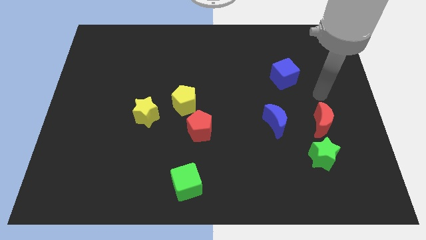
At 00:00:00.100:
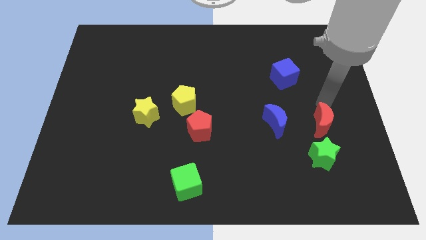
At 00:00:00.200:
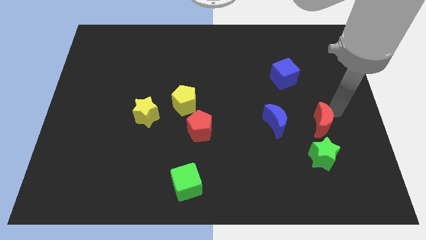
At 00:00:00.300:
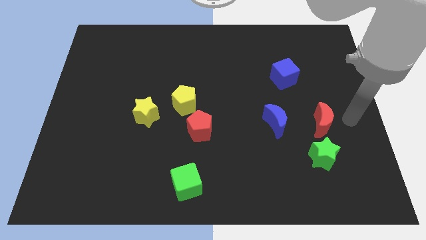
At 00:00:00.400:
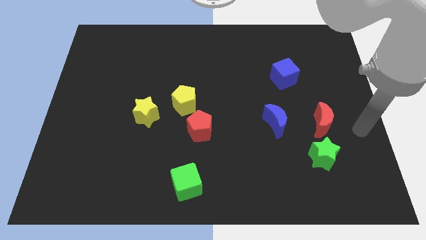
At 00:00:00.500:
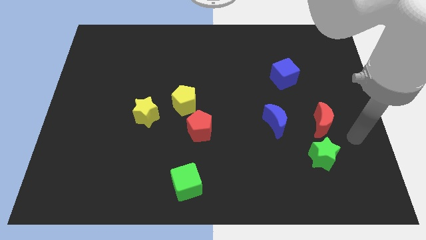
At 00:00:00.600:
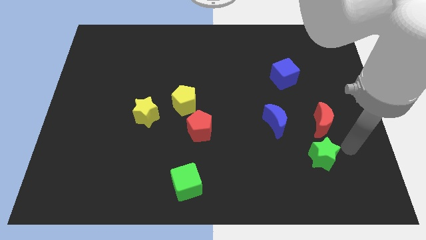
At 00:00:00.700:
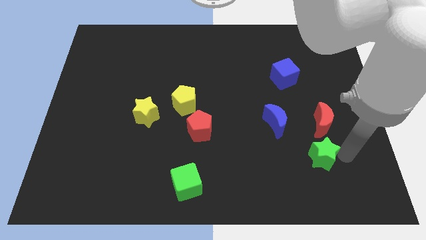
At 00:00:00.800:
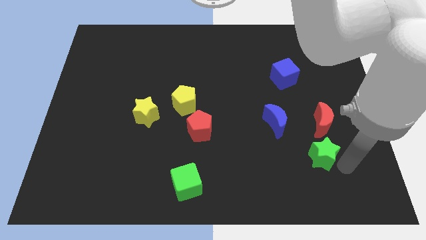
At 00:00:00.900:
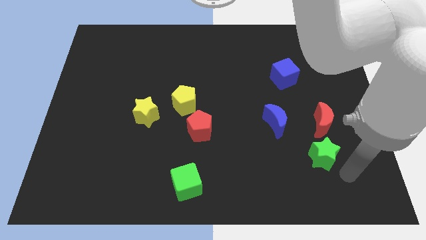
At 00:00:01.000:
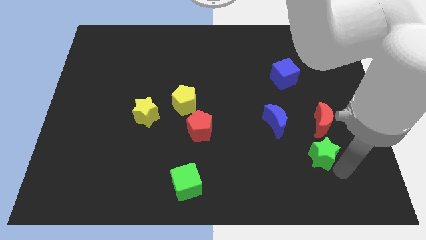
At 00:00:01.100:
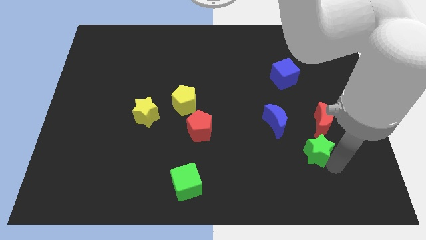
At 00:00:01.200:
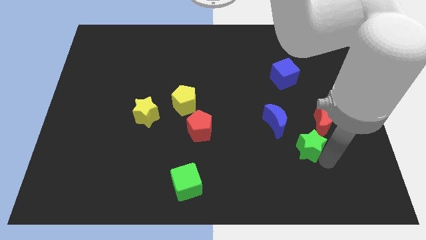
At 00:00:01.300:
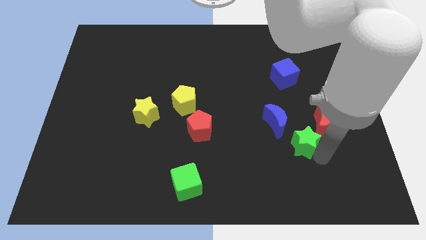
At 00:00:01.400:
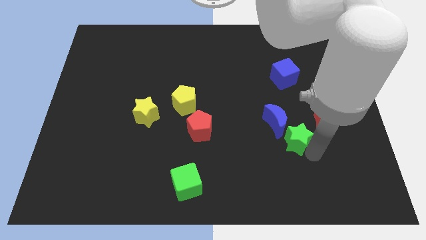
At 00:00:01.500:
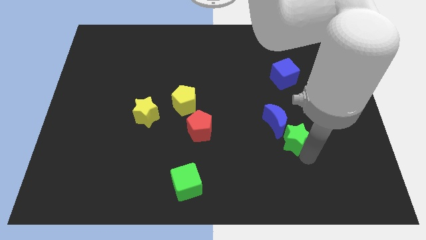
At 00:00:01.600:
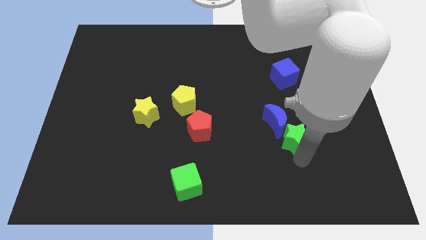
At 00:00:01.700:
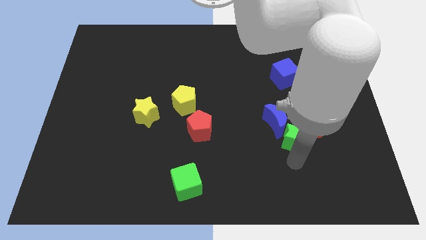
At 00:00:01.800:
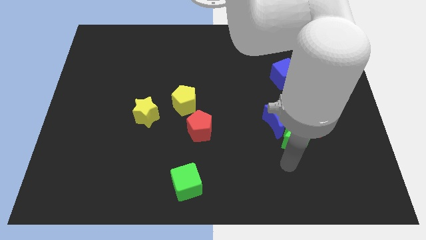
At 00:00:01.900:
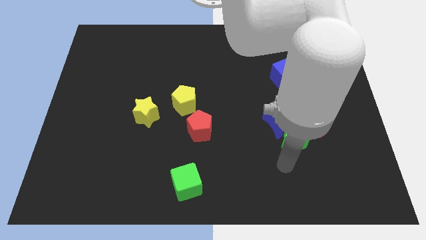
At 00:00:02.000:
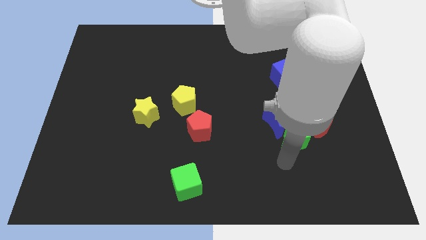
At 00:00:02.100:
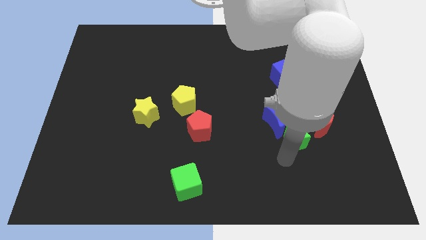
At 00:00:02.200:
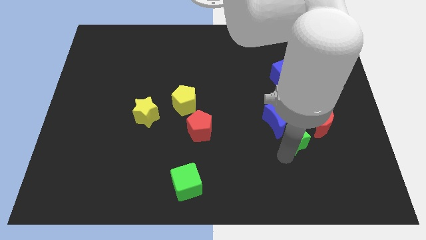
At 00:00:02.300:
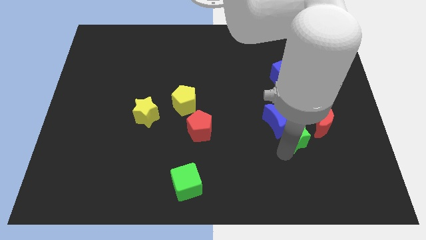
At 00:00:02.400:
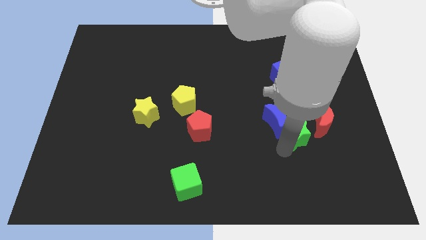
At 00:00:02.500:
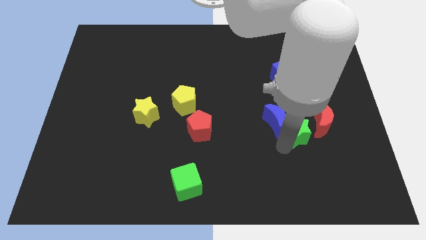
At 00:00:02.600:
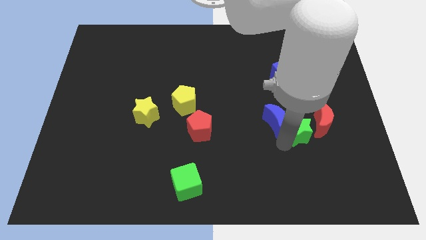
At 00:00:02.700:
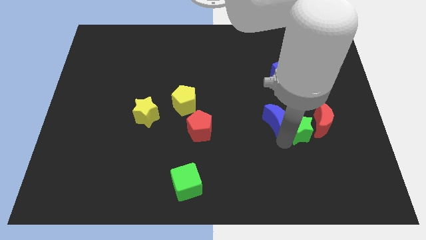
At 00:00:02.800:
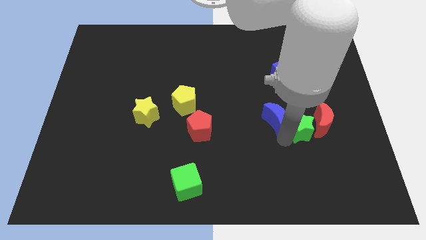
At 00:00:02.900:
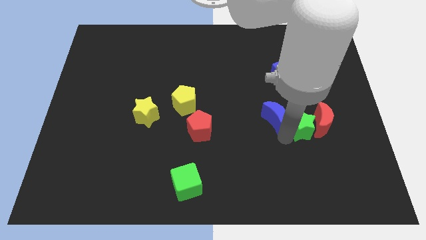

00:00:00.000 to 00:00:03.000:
slightly move the green star up

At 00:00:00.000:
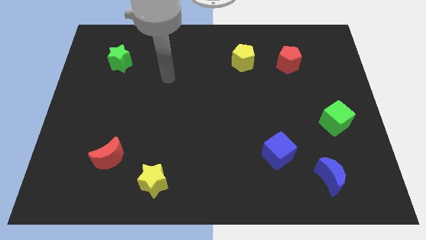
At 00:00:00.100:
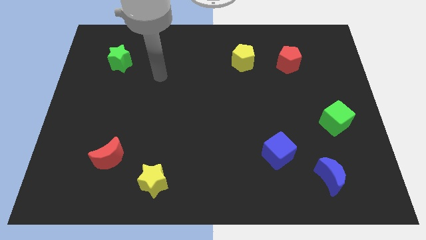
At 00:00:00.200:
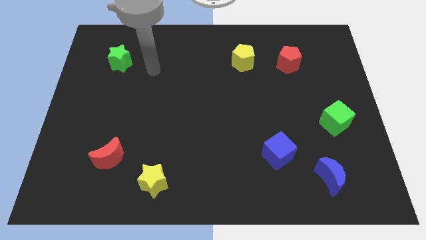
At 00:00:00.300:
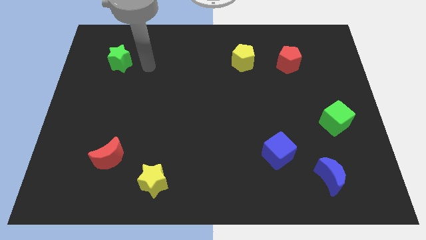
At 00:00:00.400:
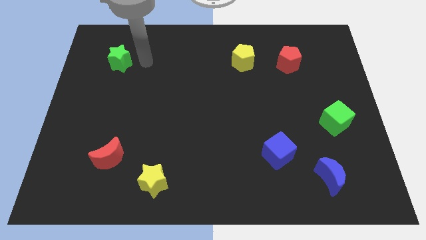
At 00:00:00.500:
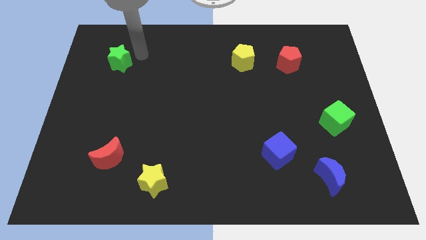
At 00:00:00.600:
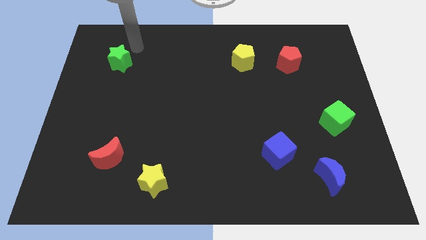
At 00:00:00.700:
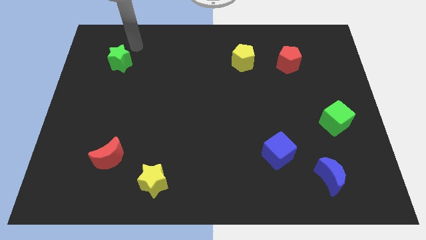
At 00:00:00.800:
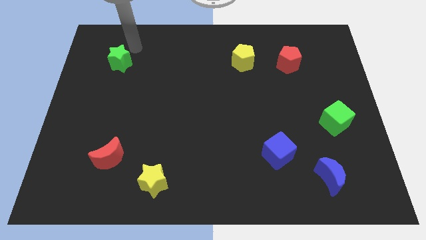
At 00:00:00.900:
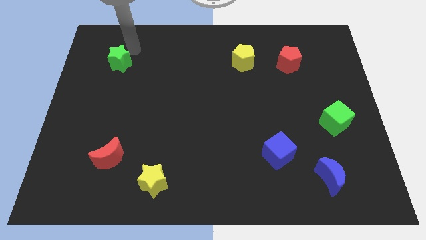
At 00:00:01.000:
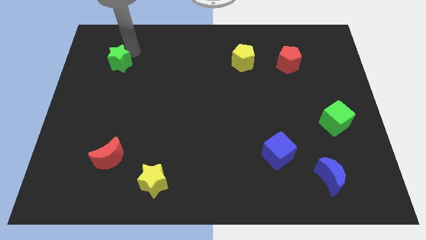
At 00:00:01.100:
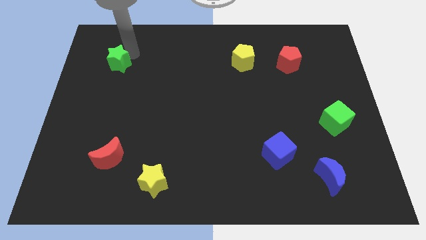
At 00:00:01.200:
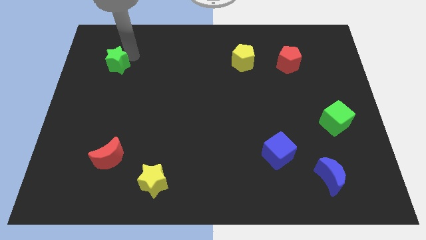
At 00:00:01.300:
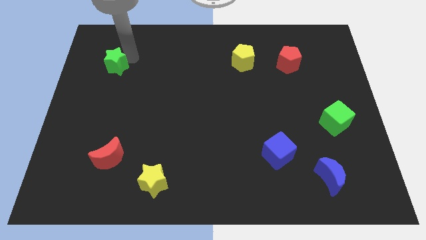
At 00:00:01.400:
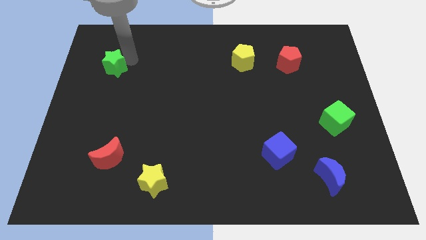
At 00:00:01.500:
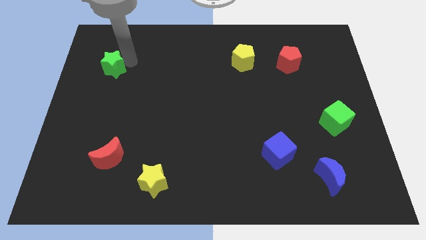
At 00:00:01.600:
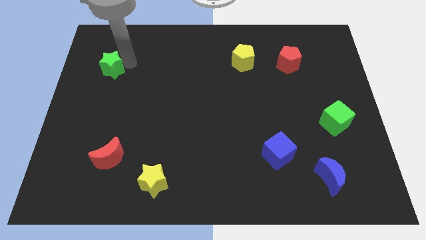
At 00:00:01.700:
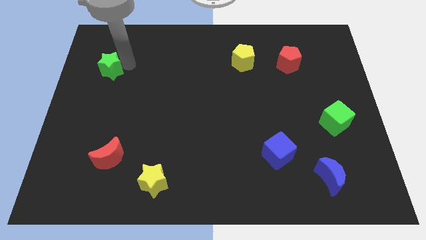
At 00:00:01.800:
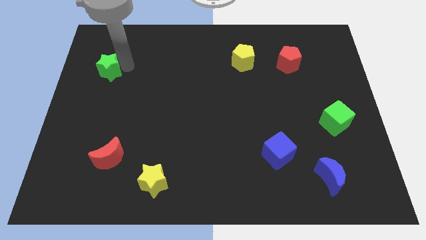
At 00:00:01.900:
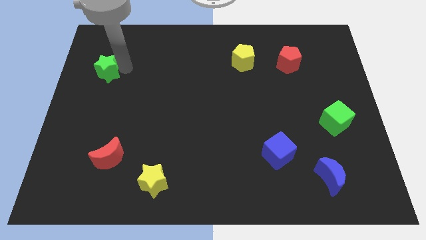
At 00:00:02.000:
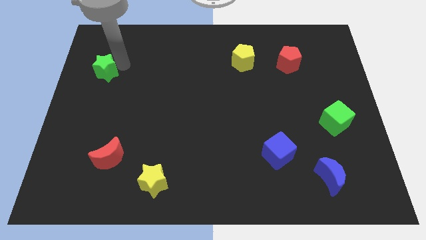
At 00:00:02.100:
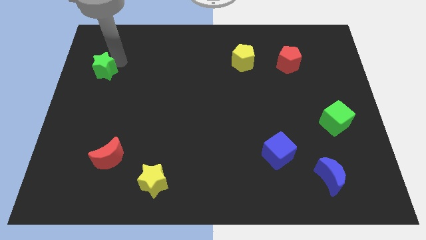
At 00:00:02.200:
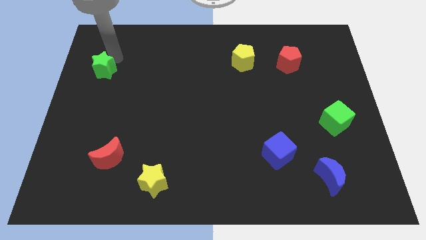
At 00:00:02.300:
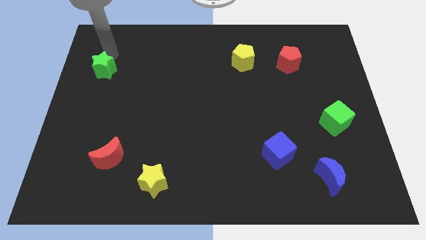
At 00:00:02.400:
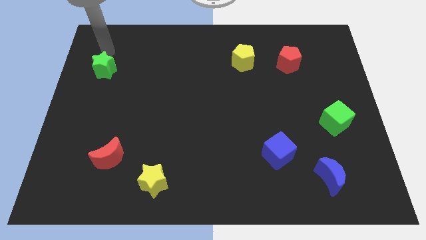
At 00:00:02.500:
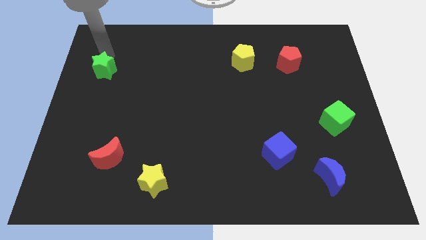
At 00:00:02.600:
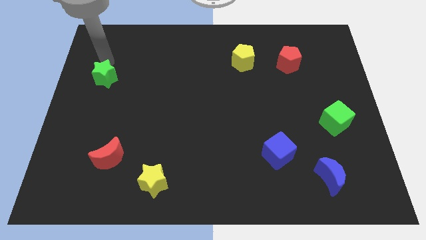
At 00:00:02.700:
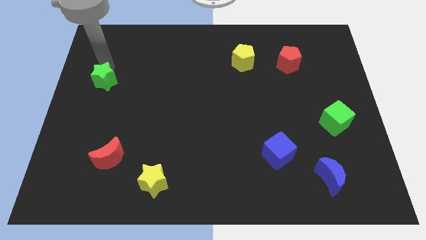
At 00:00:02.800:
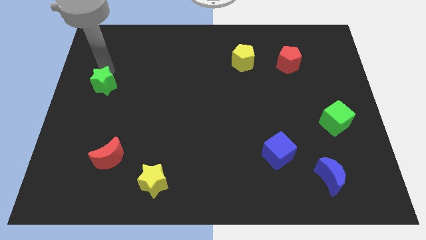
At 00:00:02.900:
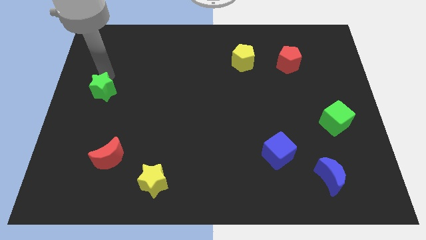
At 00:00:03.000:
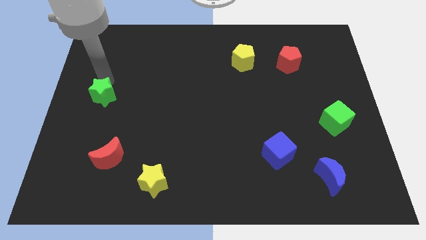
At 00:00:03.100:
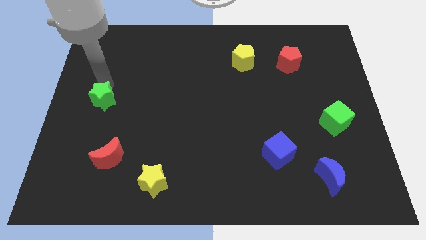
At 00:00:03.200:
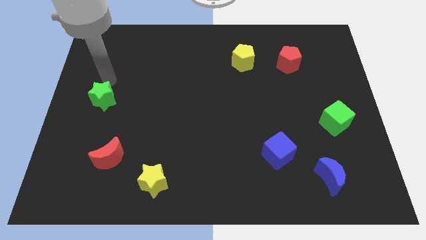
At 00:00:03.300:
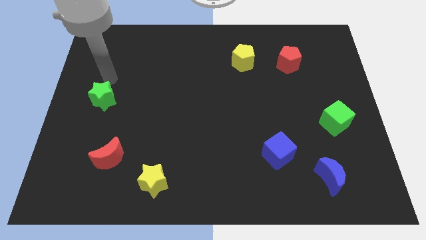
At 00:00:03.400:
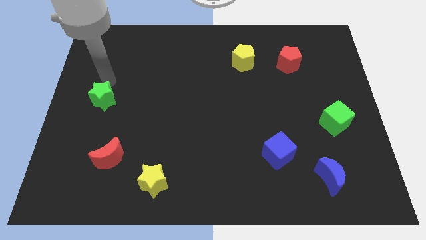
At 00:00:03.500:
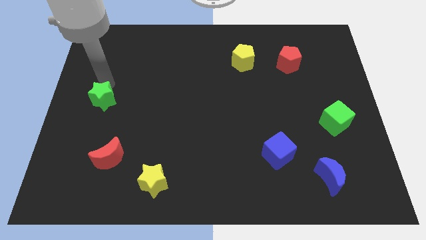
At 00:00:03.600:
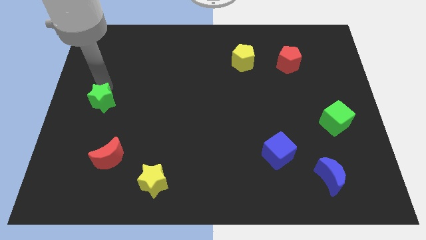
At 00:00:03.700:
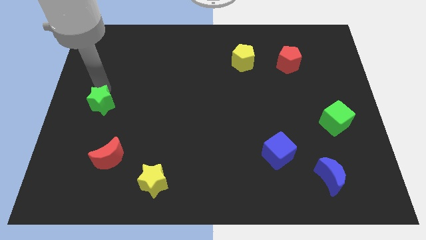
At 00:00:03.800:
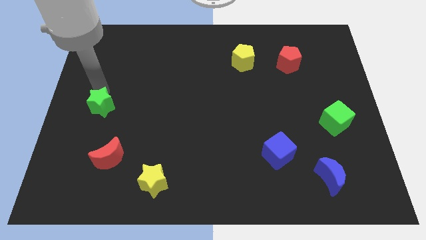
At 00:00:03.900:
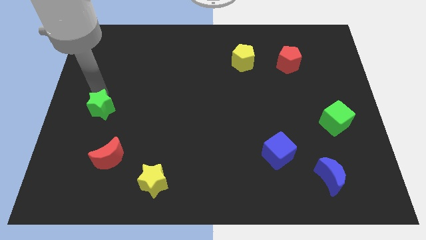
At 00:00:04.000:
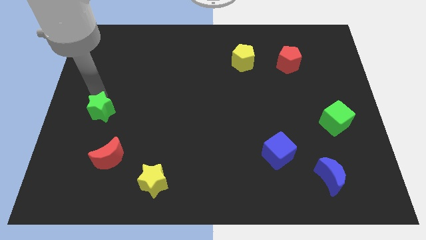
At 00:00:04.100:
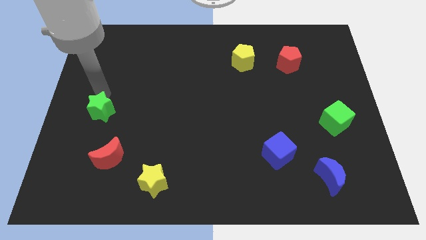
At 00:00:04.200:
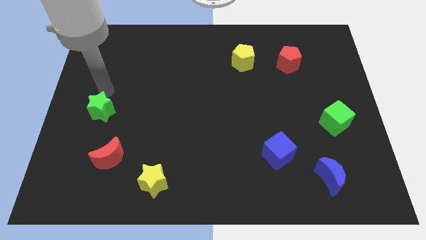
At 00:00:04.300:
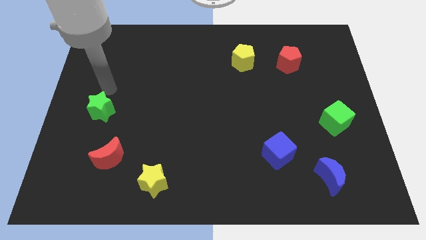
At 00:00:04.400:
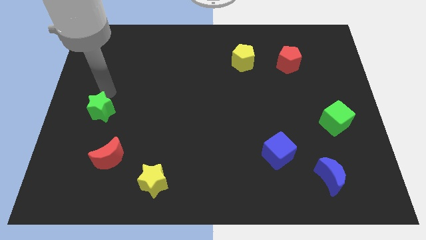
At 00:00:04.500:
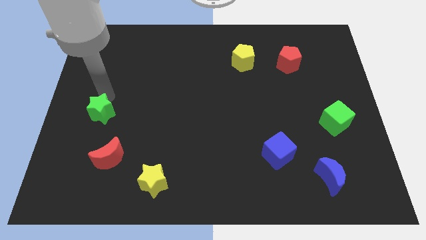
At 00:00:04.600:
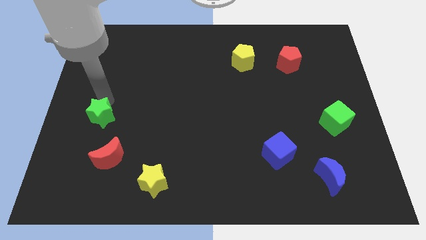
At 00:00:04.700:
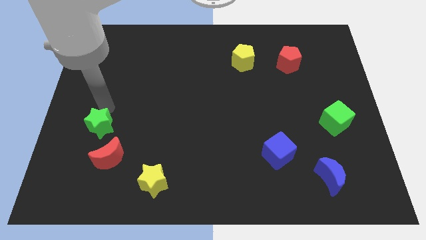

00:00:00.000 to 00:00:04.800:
move the green star down
